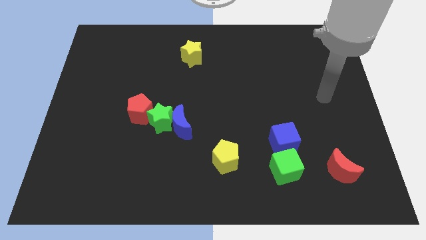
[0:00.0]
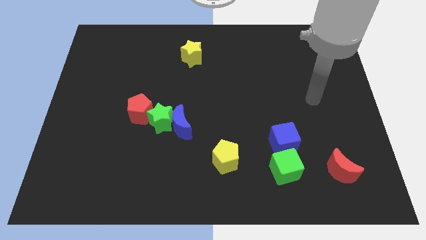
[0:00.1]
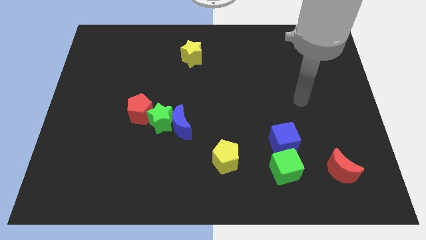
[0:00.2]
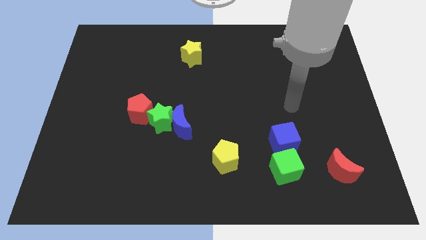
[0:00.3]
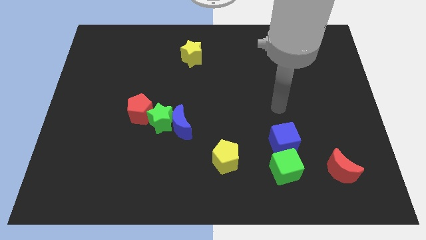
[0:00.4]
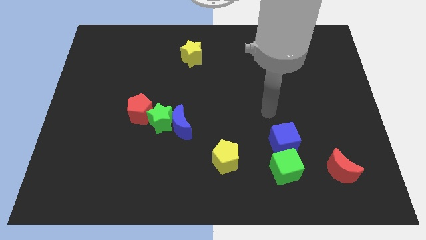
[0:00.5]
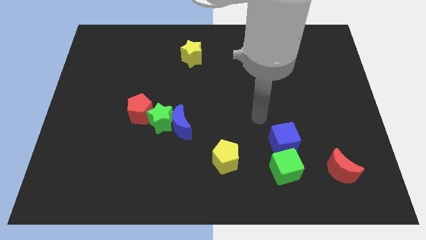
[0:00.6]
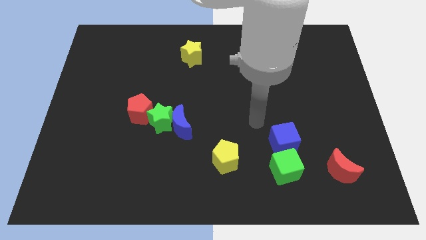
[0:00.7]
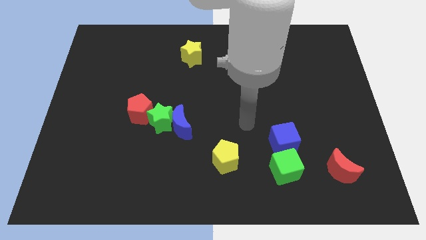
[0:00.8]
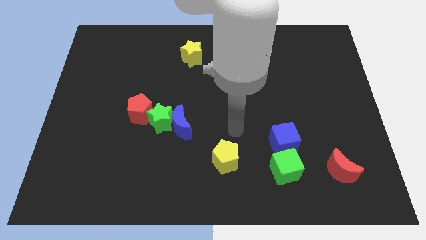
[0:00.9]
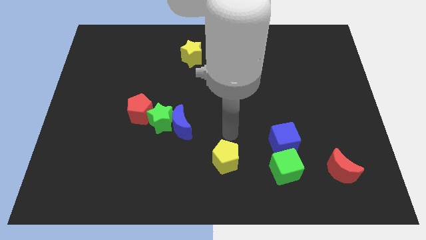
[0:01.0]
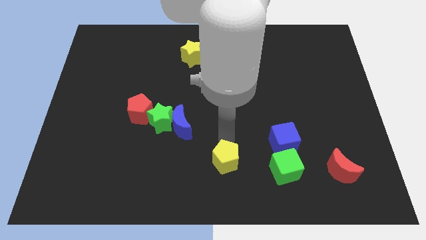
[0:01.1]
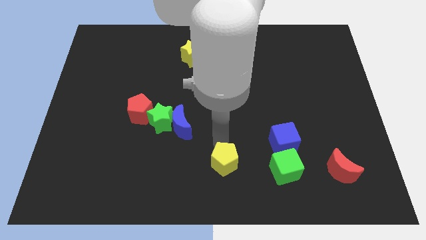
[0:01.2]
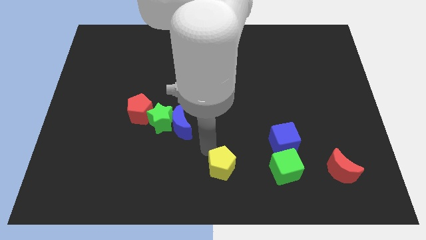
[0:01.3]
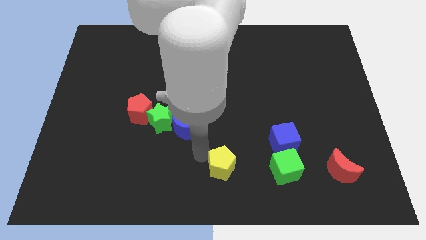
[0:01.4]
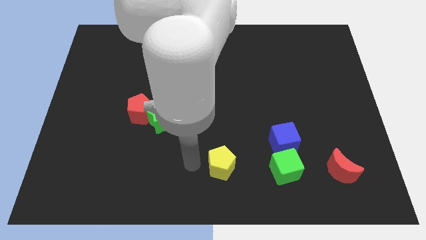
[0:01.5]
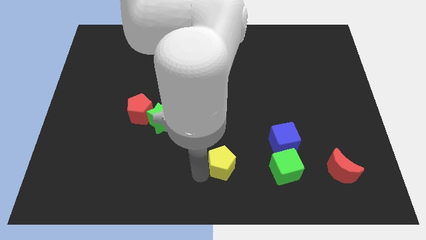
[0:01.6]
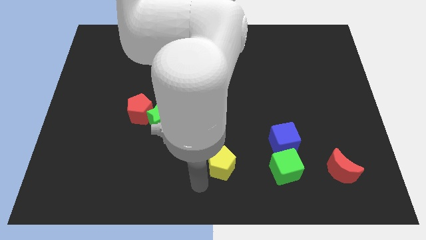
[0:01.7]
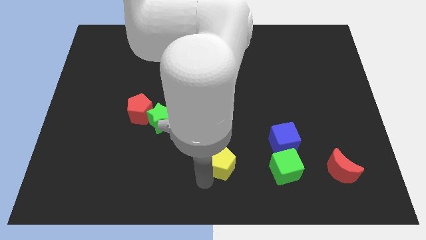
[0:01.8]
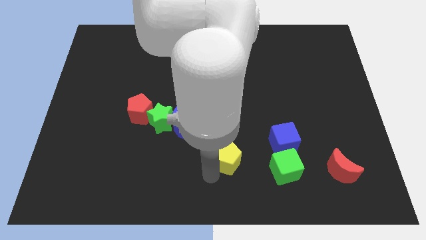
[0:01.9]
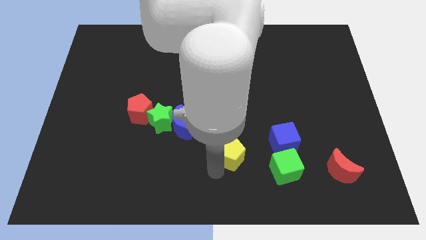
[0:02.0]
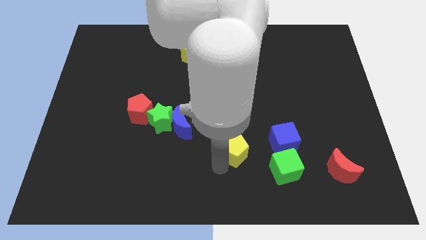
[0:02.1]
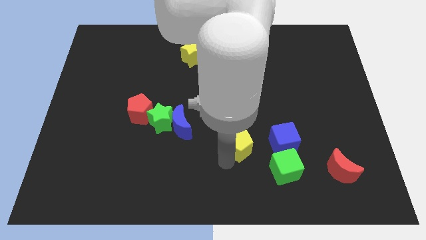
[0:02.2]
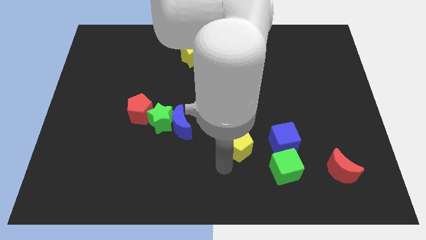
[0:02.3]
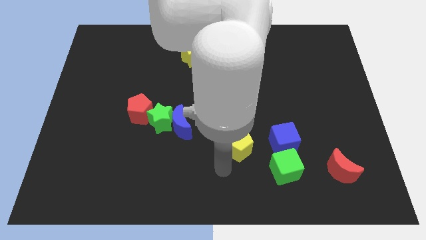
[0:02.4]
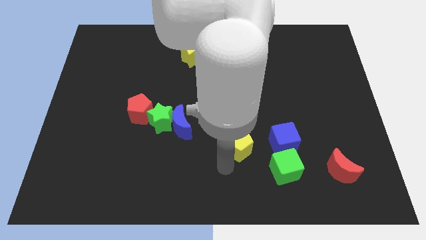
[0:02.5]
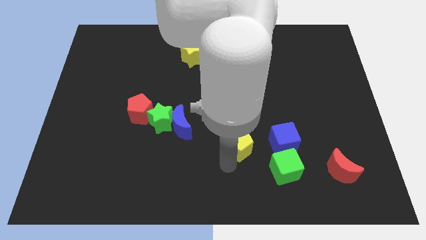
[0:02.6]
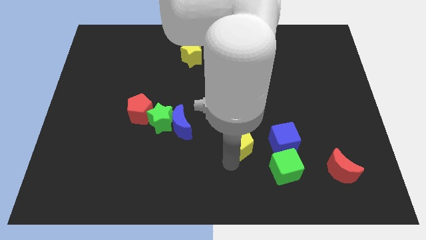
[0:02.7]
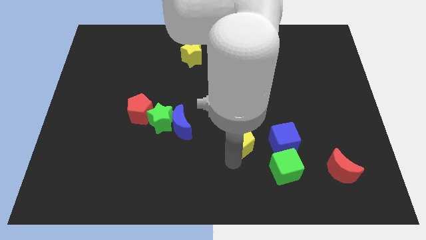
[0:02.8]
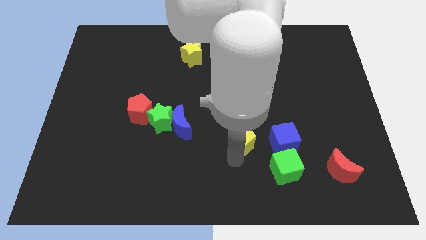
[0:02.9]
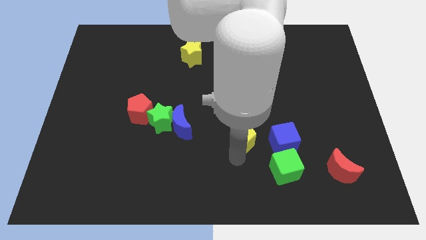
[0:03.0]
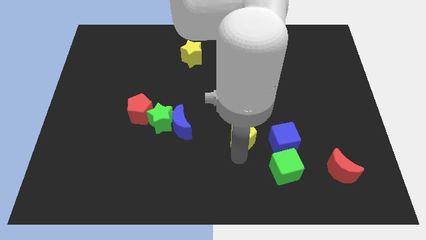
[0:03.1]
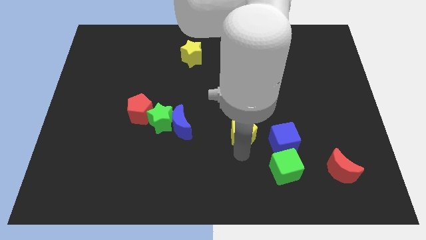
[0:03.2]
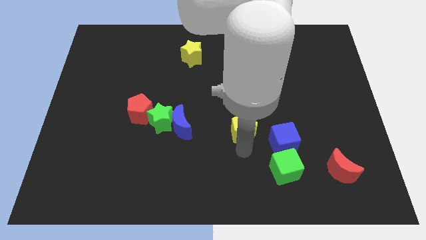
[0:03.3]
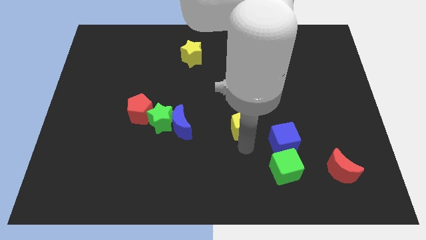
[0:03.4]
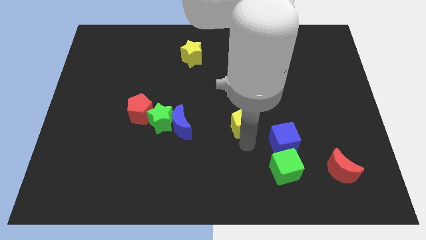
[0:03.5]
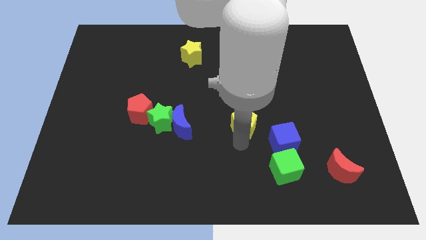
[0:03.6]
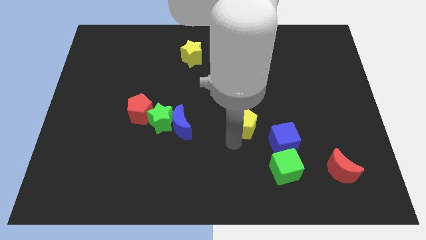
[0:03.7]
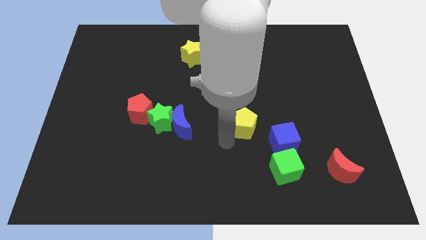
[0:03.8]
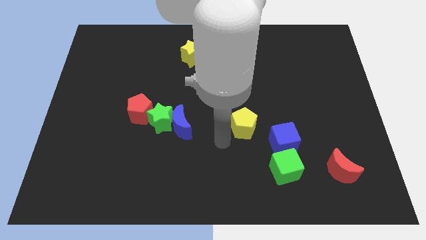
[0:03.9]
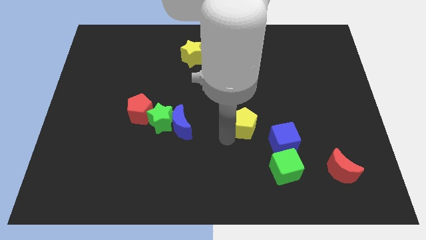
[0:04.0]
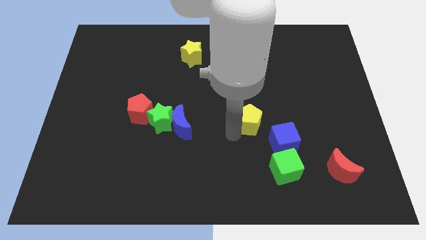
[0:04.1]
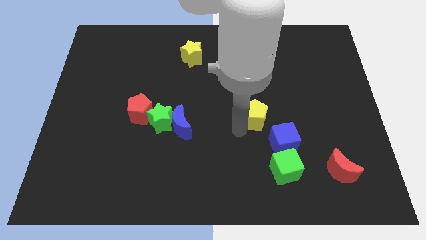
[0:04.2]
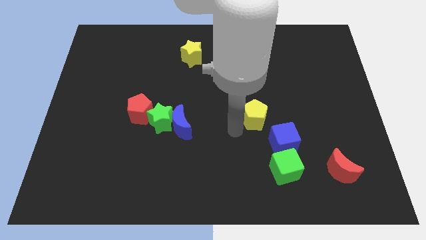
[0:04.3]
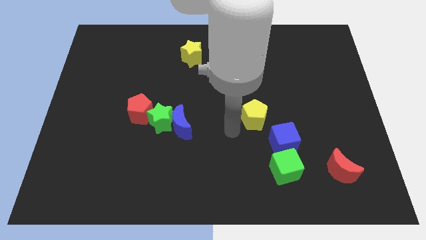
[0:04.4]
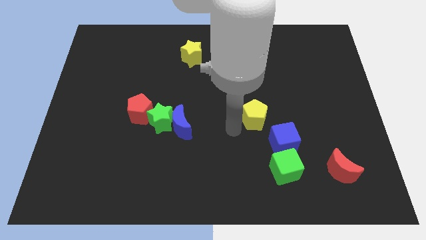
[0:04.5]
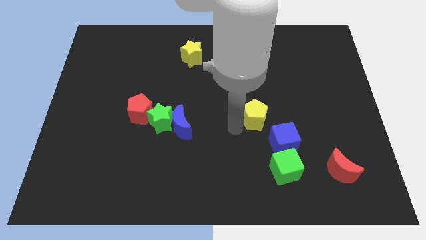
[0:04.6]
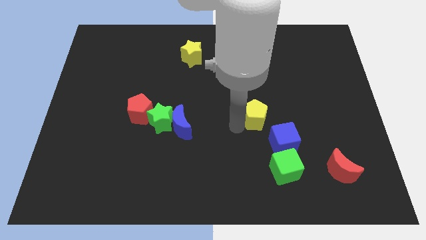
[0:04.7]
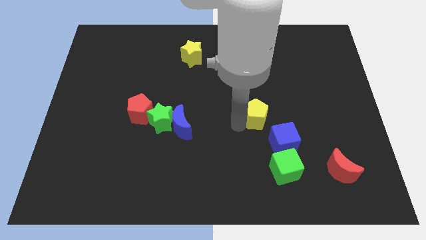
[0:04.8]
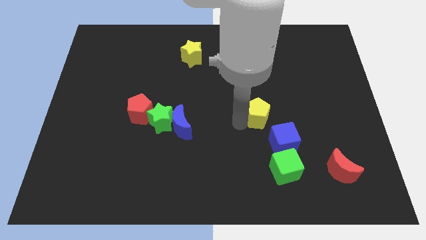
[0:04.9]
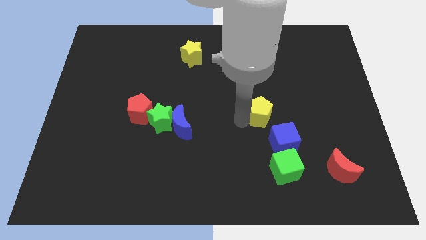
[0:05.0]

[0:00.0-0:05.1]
put the yellow pentagon above the blue cube

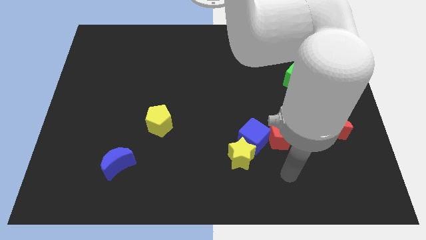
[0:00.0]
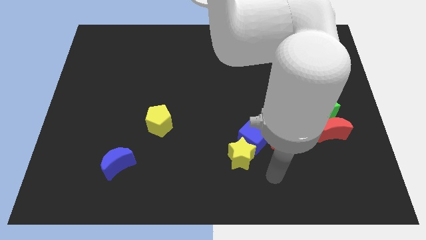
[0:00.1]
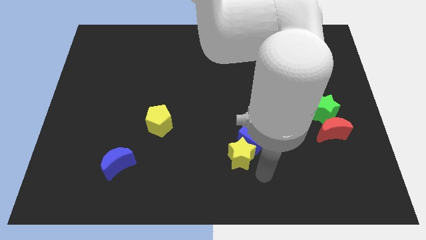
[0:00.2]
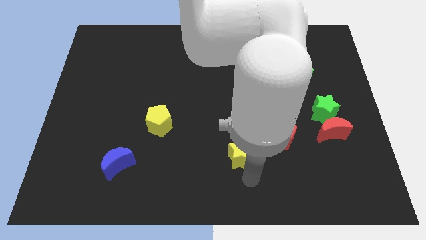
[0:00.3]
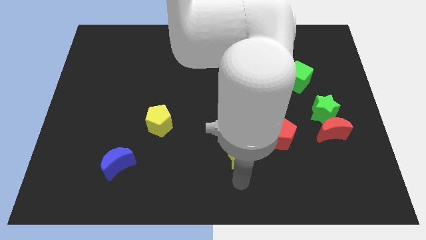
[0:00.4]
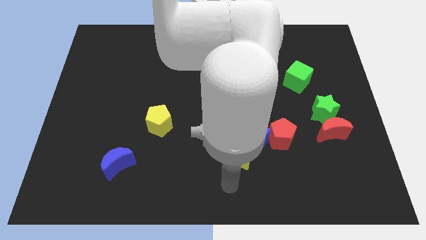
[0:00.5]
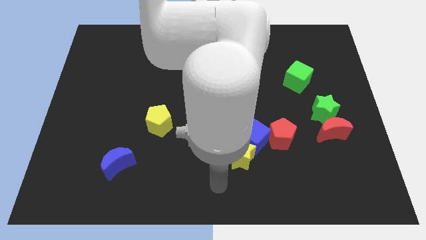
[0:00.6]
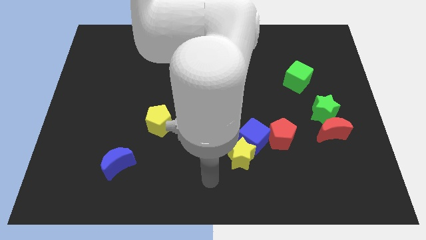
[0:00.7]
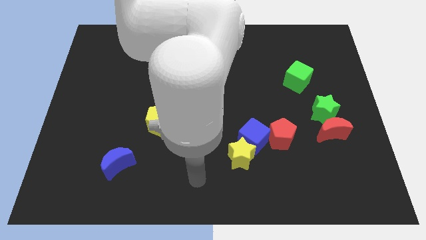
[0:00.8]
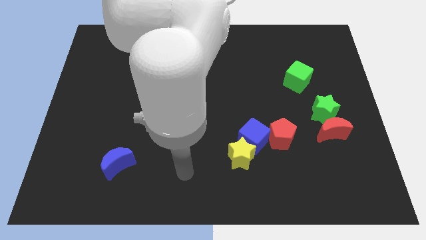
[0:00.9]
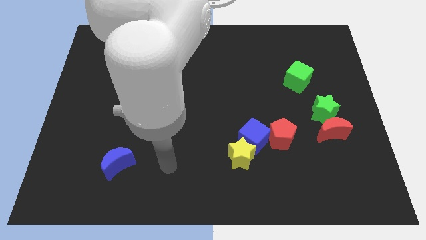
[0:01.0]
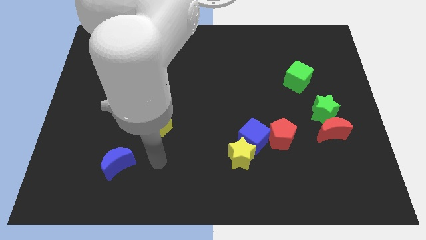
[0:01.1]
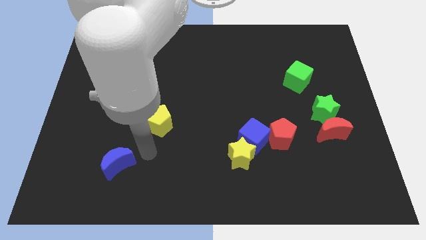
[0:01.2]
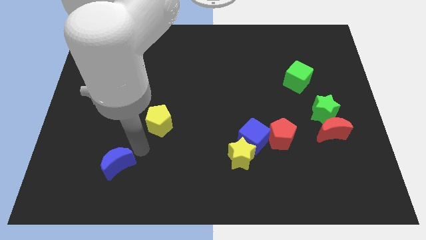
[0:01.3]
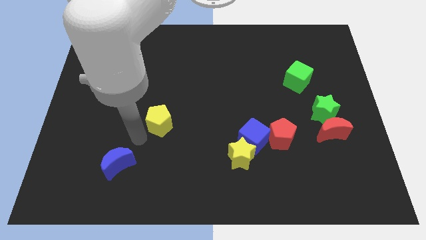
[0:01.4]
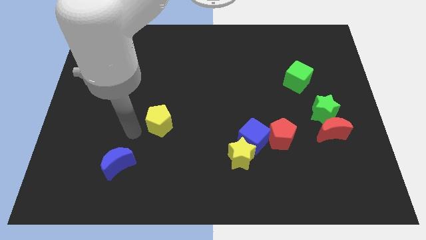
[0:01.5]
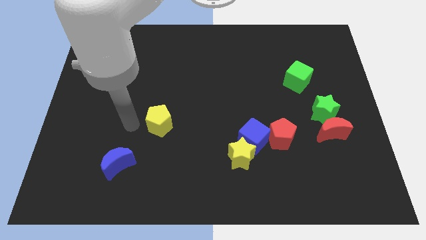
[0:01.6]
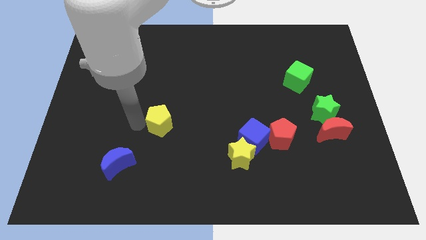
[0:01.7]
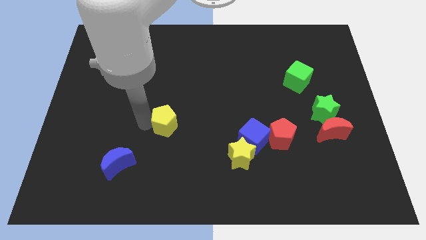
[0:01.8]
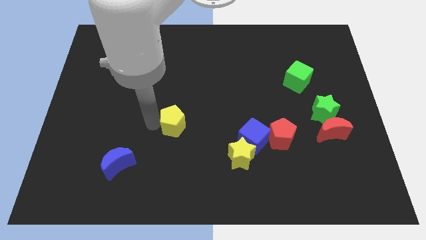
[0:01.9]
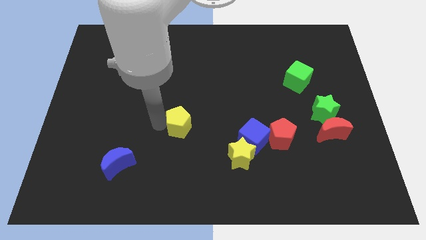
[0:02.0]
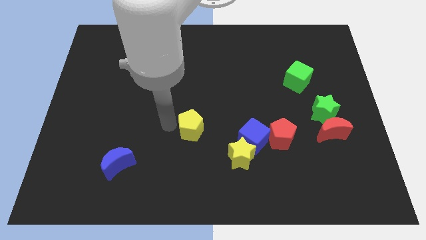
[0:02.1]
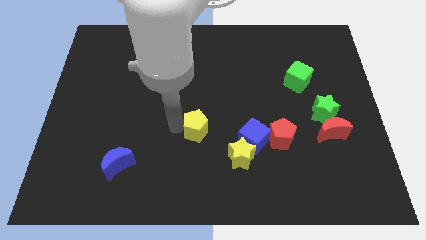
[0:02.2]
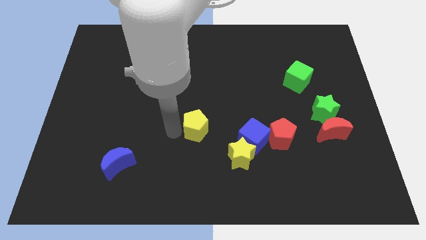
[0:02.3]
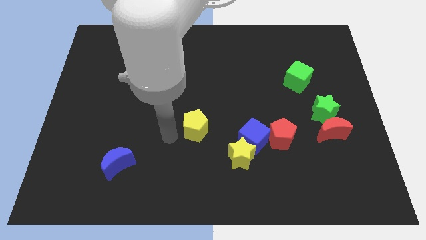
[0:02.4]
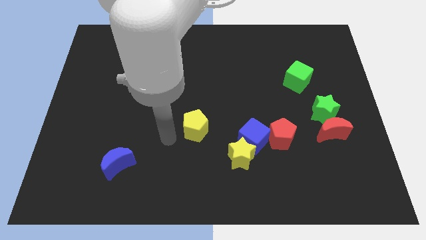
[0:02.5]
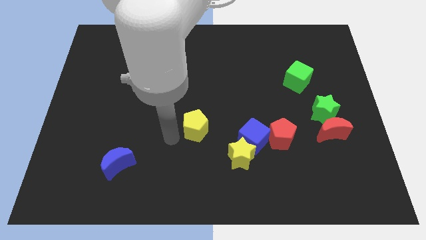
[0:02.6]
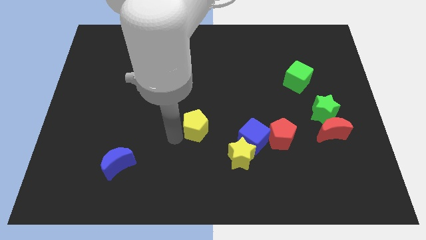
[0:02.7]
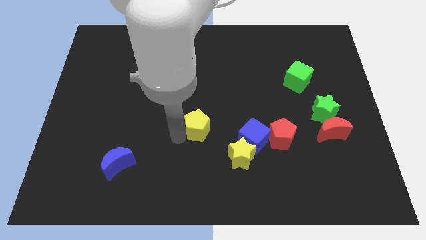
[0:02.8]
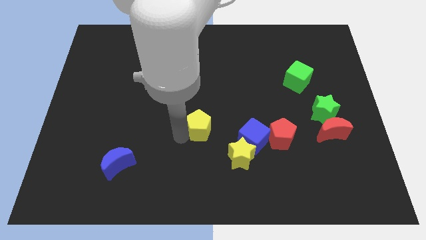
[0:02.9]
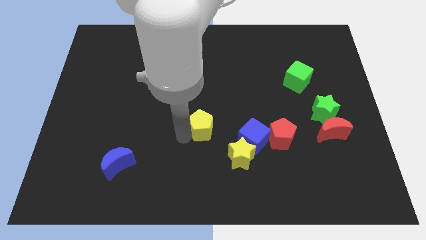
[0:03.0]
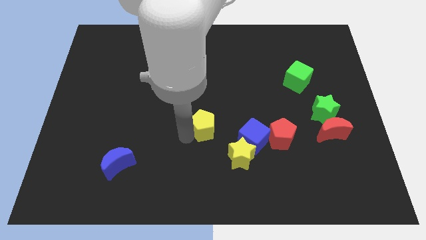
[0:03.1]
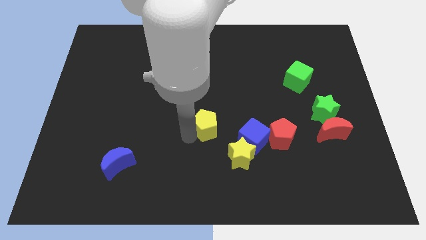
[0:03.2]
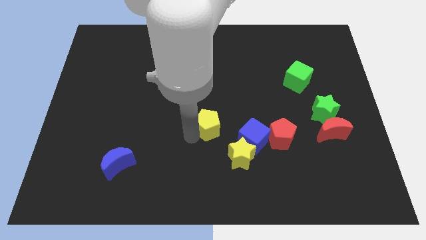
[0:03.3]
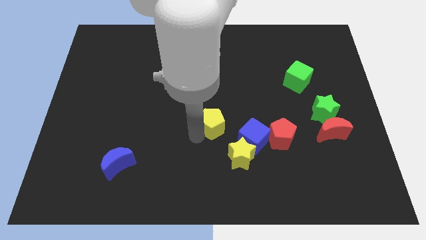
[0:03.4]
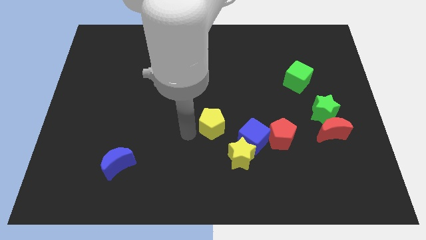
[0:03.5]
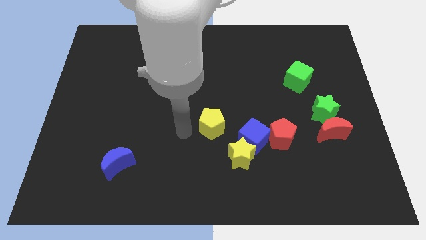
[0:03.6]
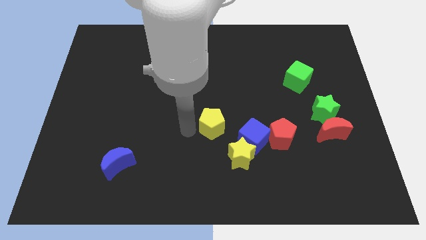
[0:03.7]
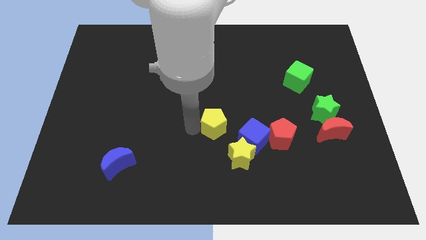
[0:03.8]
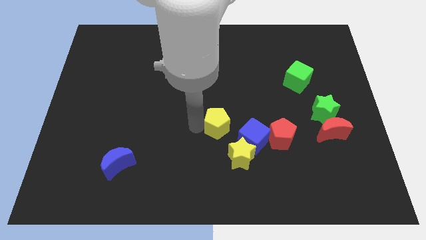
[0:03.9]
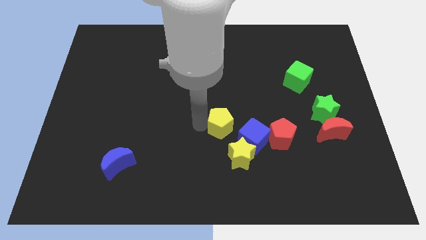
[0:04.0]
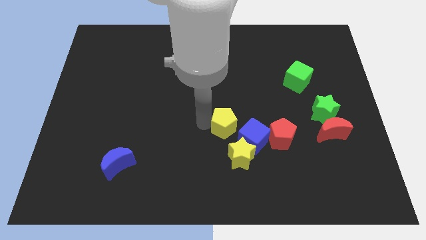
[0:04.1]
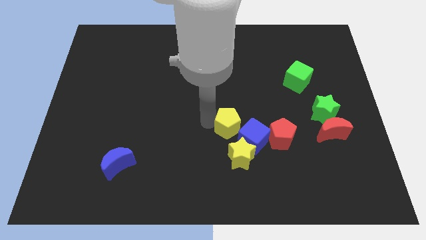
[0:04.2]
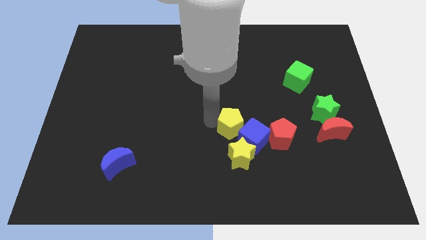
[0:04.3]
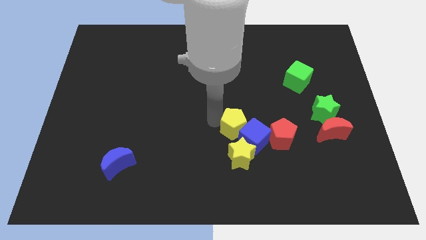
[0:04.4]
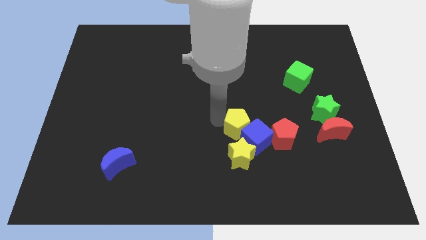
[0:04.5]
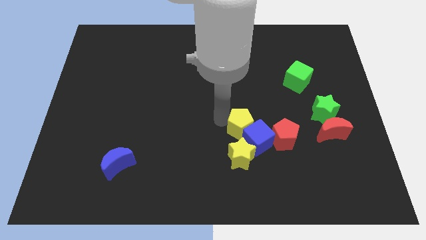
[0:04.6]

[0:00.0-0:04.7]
slide the yellow pentagon to the top left of the red pentagon
